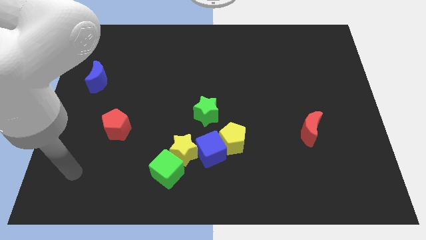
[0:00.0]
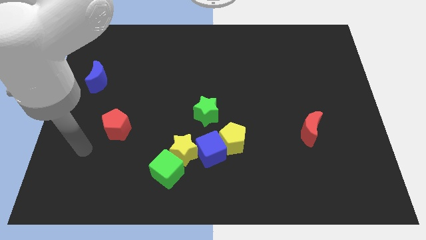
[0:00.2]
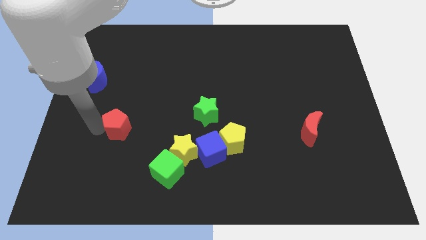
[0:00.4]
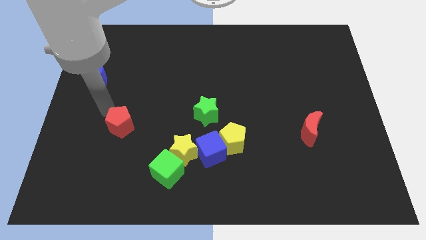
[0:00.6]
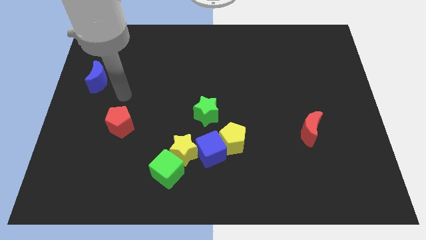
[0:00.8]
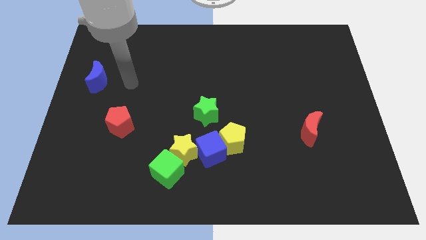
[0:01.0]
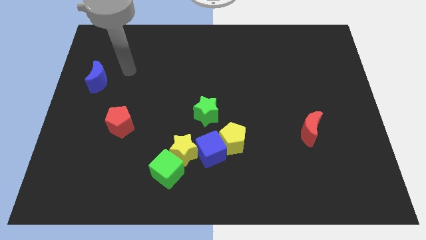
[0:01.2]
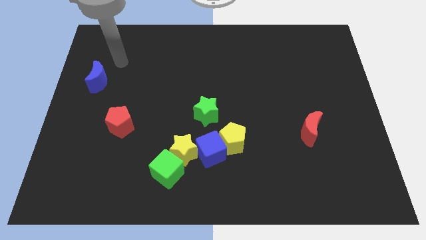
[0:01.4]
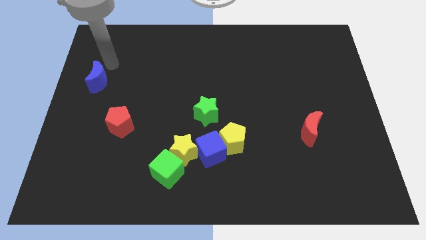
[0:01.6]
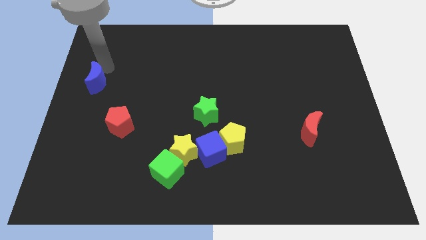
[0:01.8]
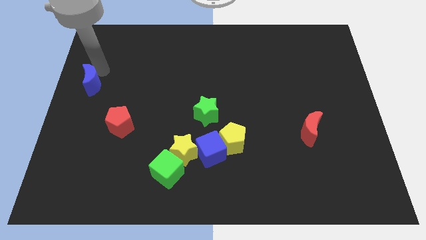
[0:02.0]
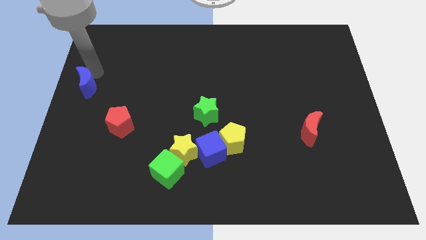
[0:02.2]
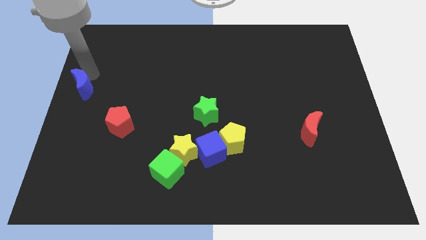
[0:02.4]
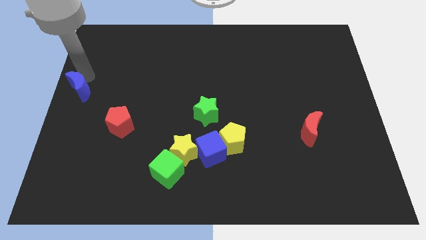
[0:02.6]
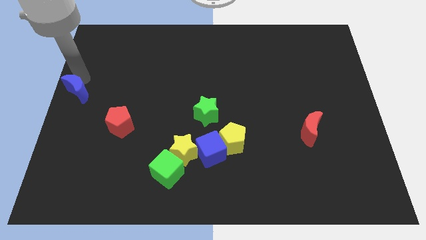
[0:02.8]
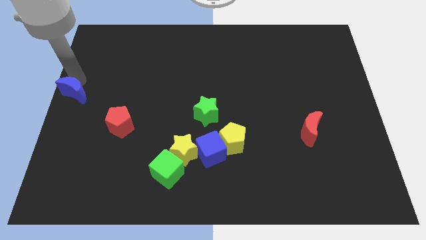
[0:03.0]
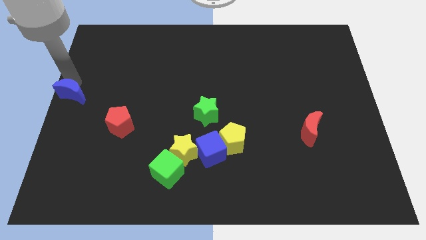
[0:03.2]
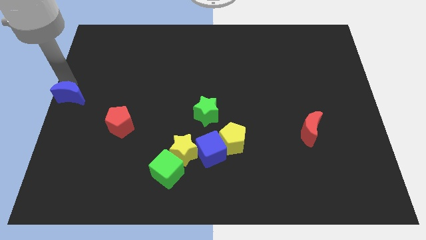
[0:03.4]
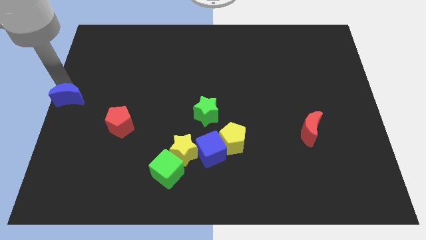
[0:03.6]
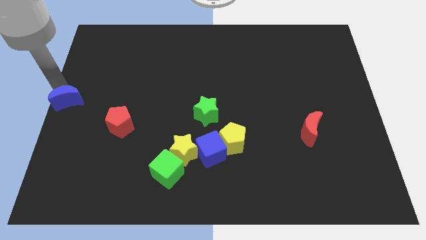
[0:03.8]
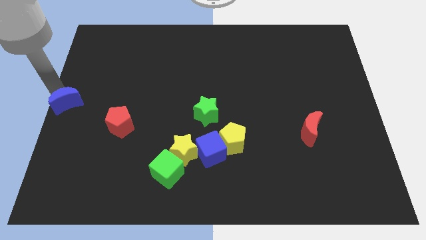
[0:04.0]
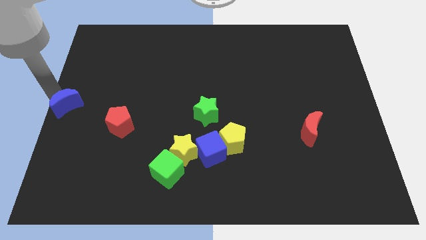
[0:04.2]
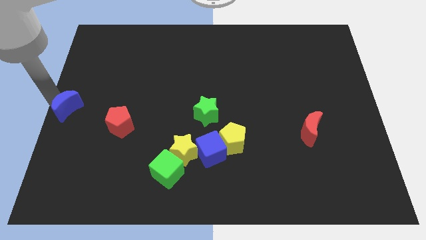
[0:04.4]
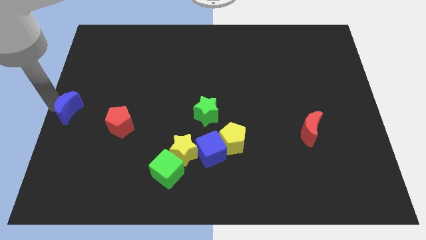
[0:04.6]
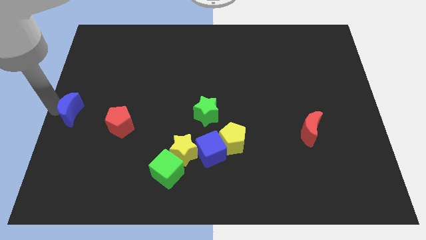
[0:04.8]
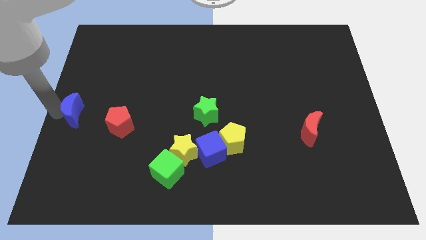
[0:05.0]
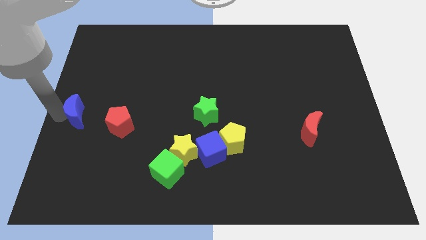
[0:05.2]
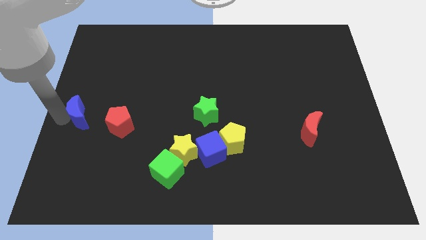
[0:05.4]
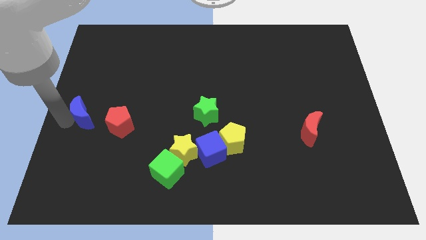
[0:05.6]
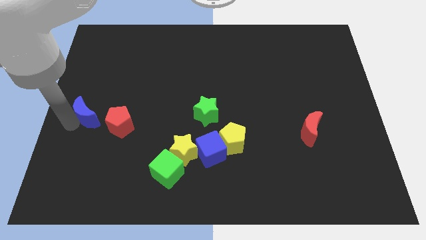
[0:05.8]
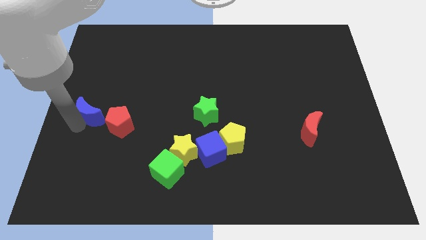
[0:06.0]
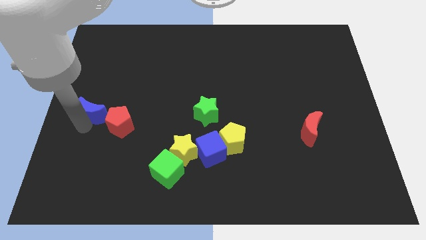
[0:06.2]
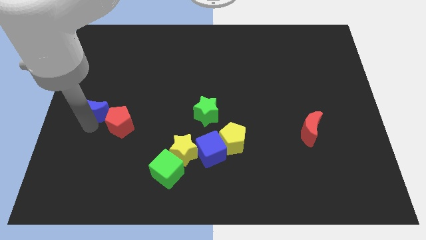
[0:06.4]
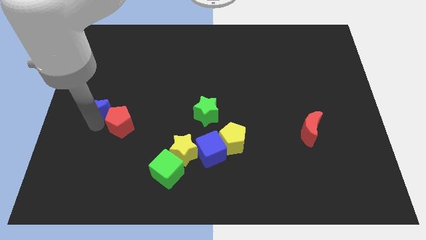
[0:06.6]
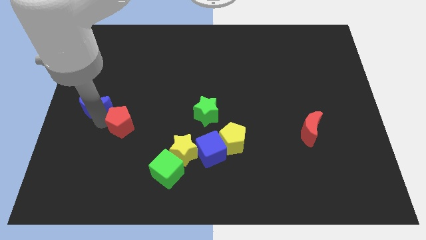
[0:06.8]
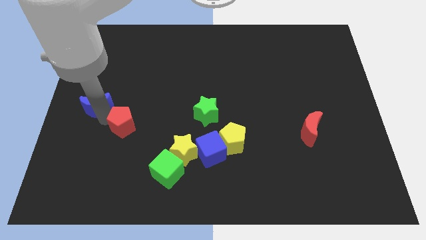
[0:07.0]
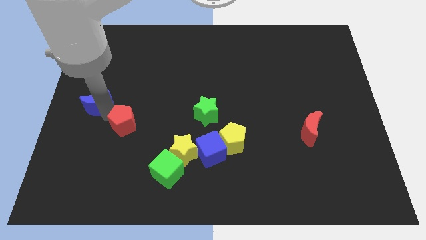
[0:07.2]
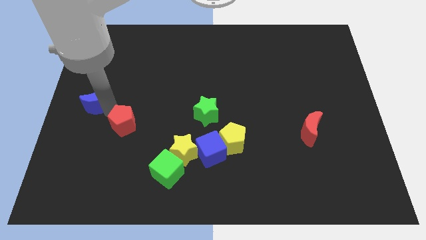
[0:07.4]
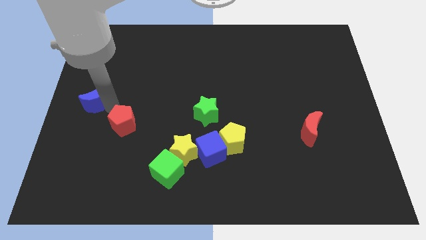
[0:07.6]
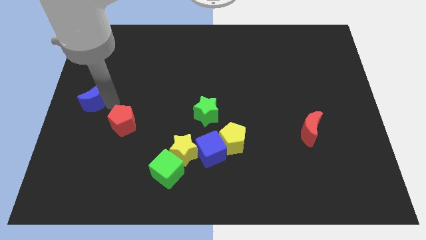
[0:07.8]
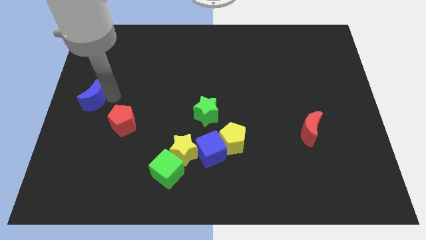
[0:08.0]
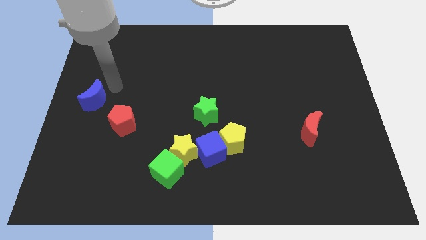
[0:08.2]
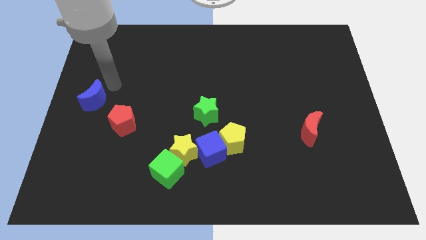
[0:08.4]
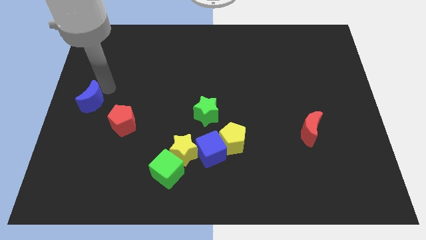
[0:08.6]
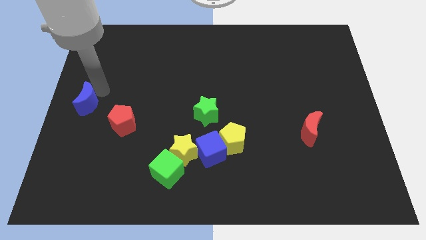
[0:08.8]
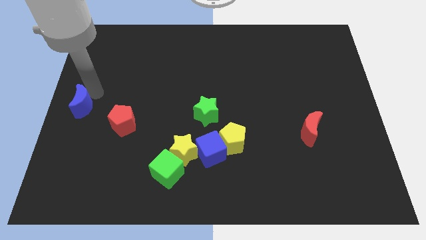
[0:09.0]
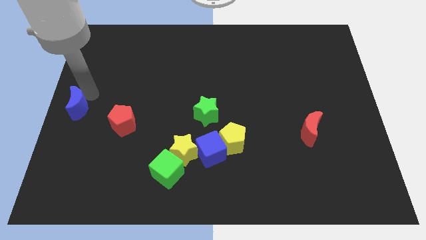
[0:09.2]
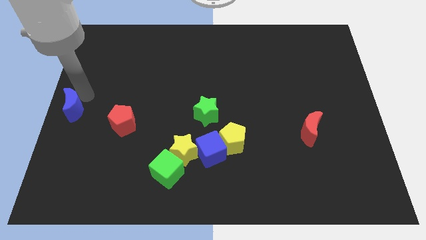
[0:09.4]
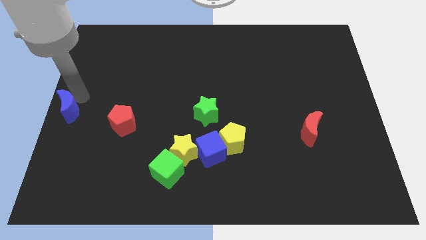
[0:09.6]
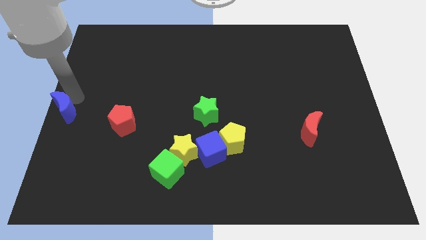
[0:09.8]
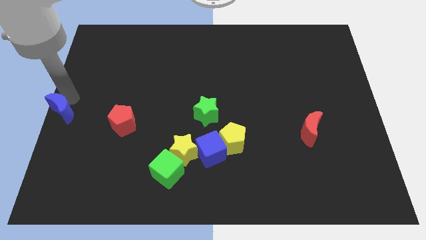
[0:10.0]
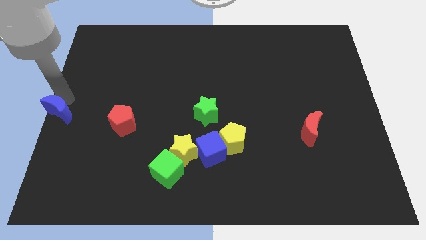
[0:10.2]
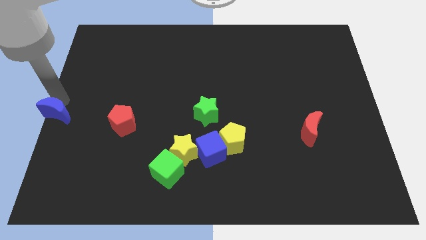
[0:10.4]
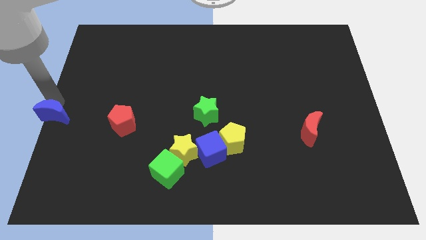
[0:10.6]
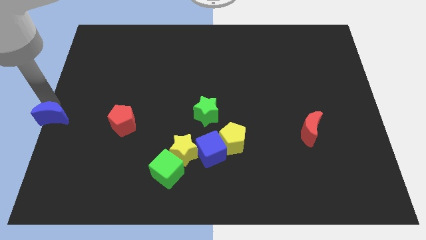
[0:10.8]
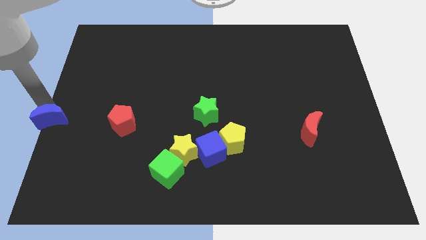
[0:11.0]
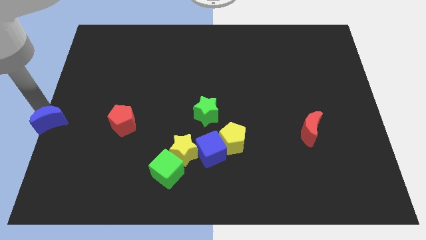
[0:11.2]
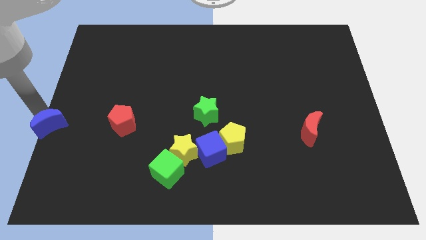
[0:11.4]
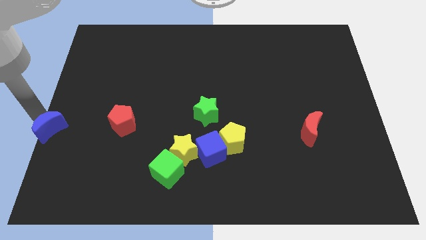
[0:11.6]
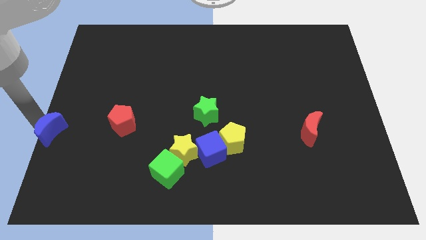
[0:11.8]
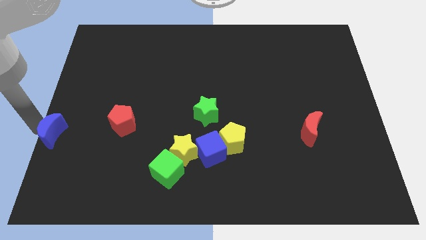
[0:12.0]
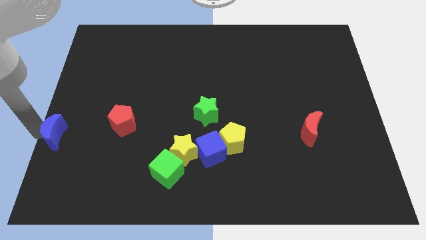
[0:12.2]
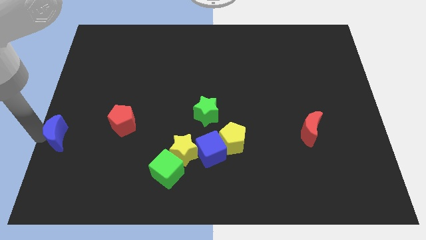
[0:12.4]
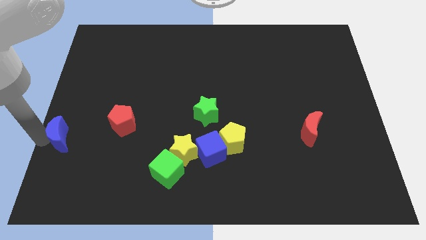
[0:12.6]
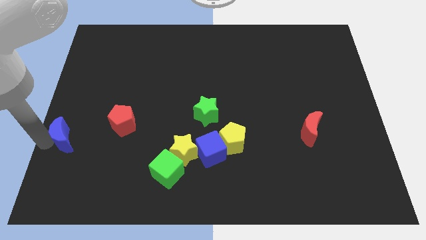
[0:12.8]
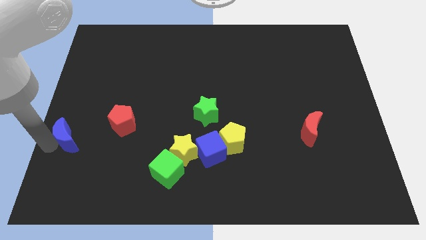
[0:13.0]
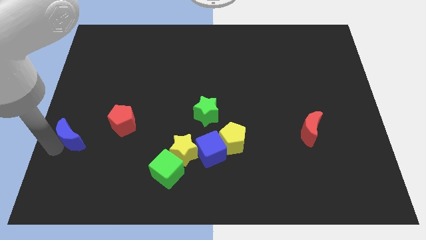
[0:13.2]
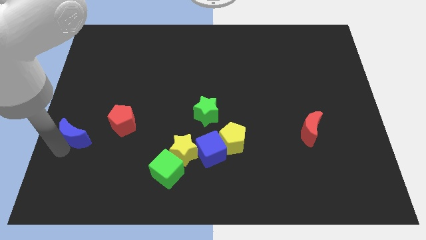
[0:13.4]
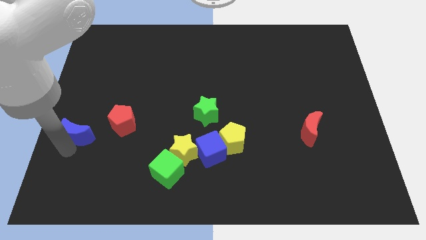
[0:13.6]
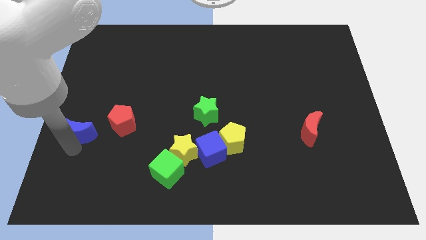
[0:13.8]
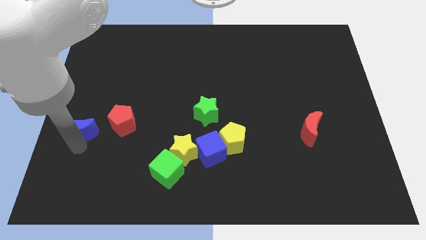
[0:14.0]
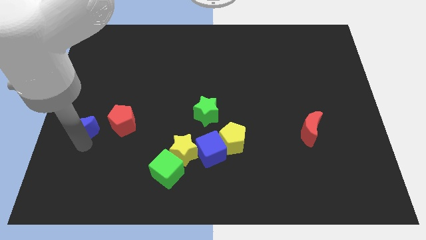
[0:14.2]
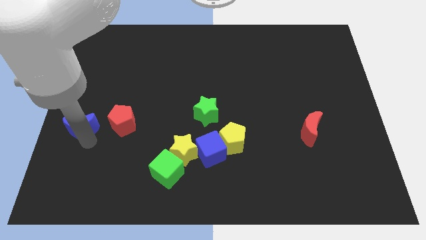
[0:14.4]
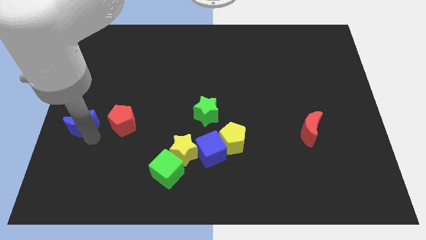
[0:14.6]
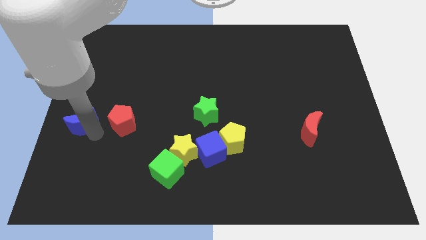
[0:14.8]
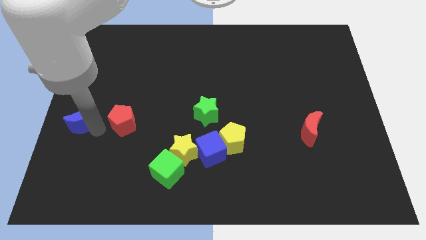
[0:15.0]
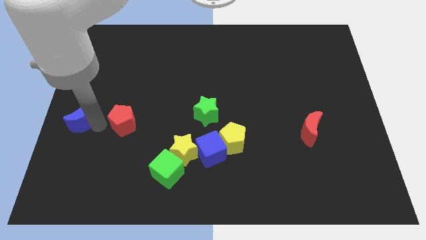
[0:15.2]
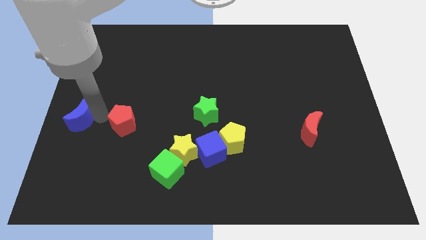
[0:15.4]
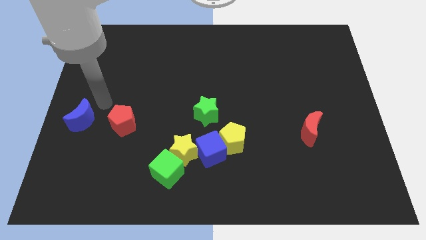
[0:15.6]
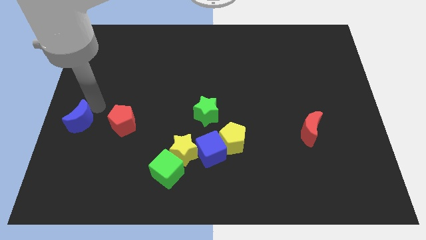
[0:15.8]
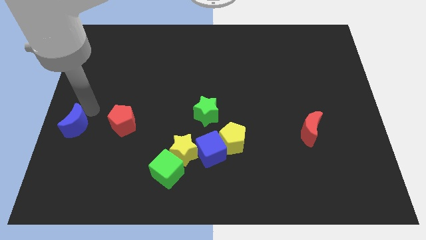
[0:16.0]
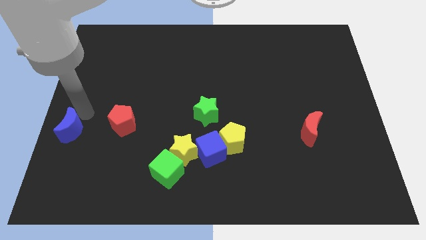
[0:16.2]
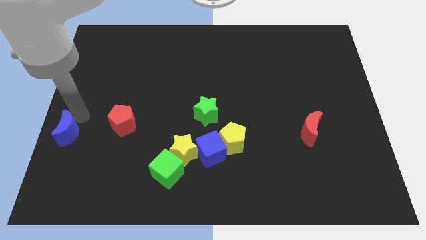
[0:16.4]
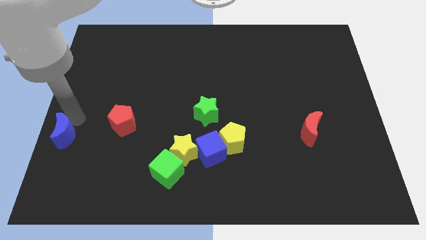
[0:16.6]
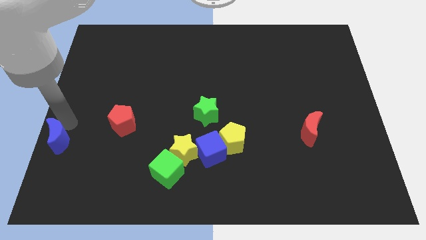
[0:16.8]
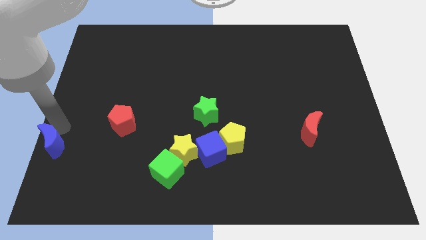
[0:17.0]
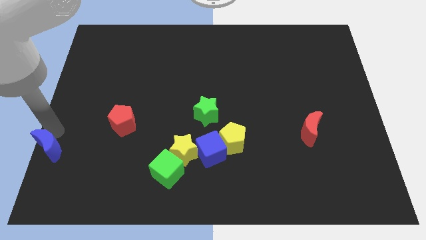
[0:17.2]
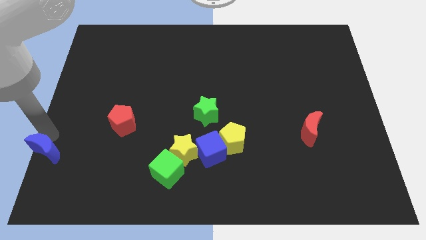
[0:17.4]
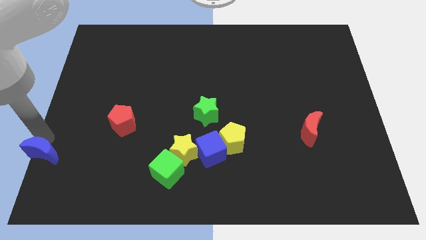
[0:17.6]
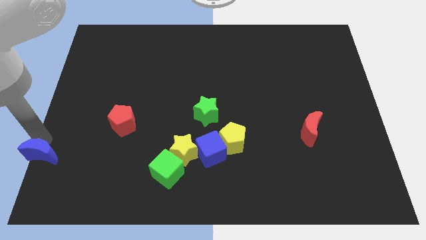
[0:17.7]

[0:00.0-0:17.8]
put the blue moon to the bottom left of the board
